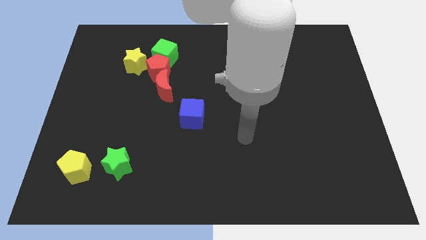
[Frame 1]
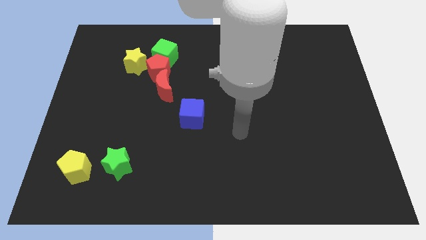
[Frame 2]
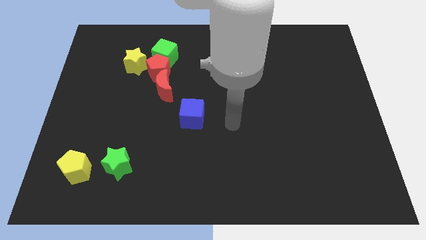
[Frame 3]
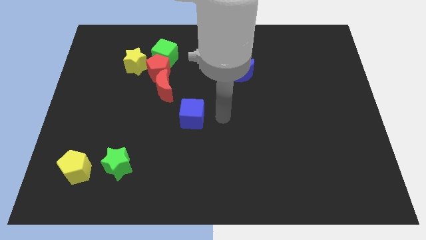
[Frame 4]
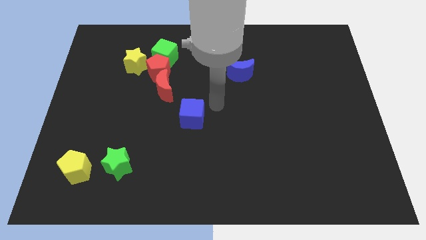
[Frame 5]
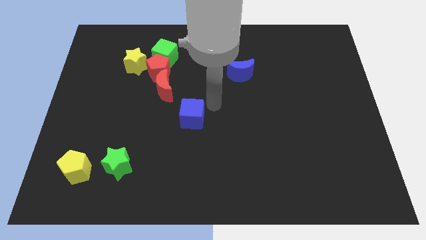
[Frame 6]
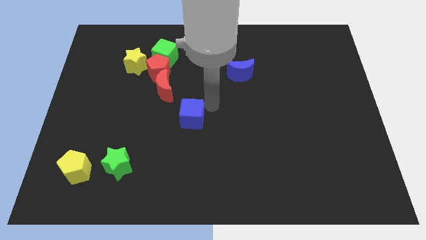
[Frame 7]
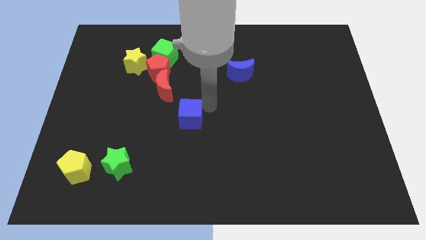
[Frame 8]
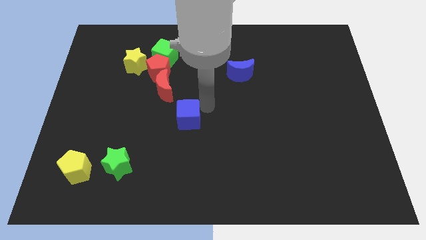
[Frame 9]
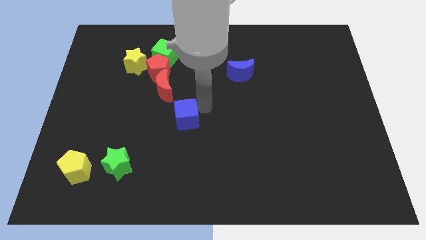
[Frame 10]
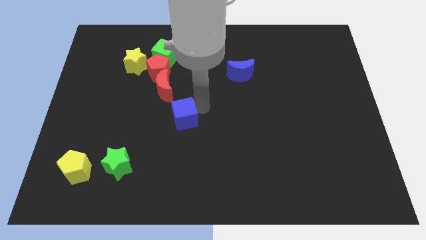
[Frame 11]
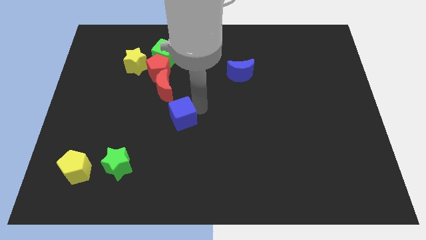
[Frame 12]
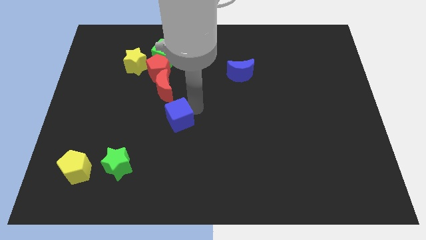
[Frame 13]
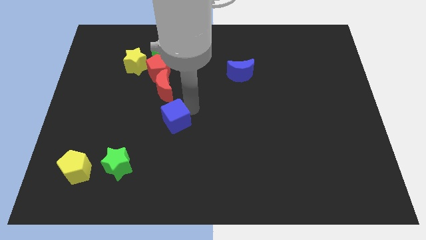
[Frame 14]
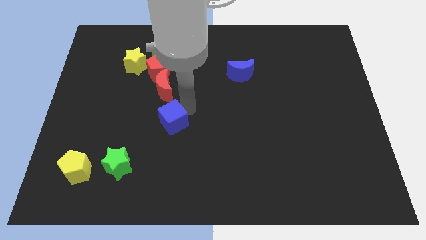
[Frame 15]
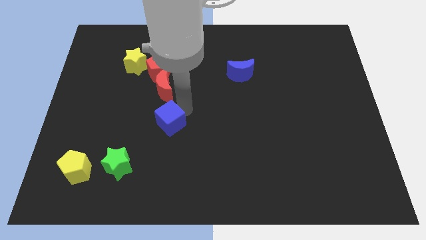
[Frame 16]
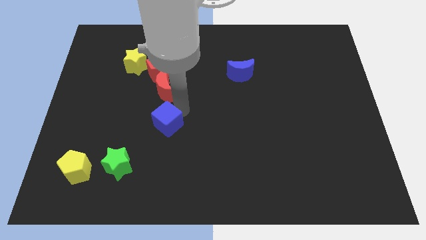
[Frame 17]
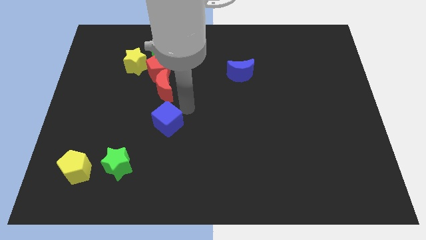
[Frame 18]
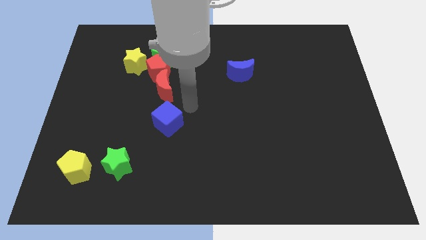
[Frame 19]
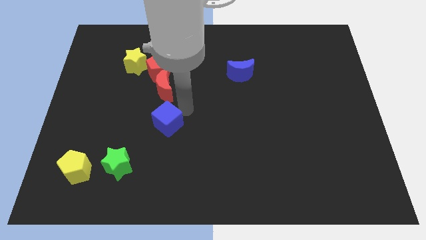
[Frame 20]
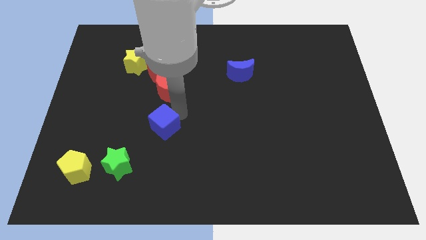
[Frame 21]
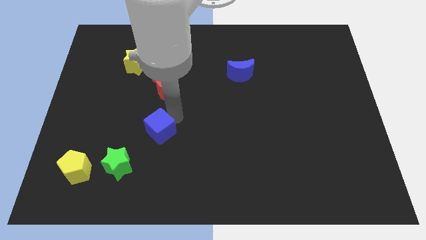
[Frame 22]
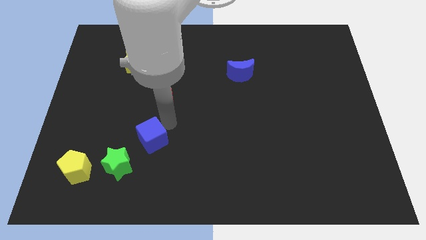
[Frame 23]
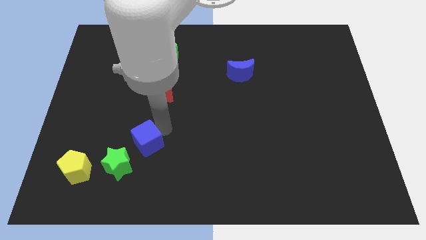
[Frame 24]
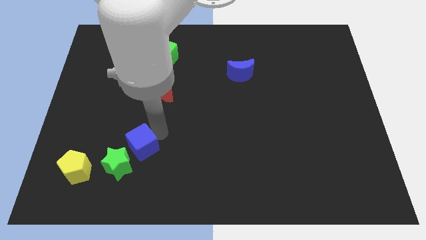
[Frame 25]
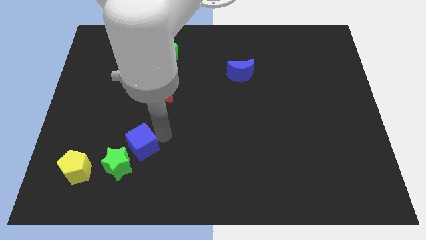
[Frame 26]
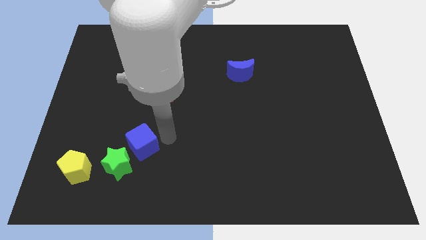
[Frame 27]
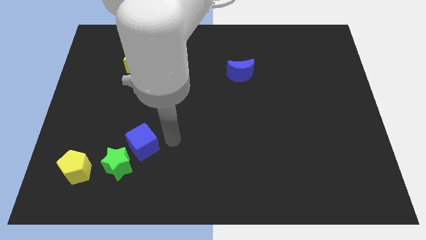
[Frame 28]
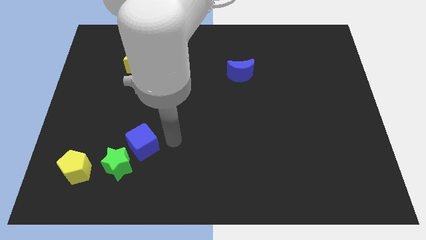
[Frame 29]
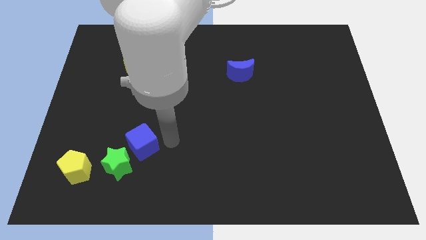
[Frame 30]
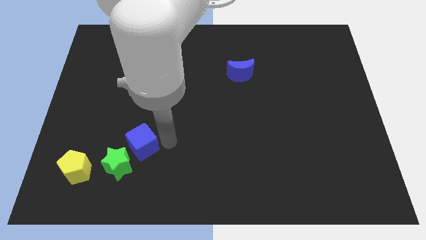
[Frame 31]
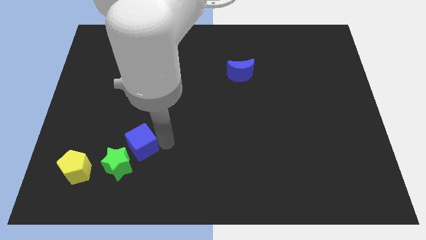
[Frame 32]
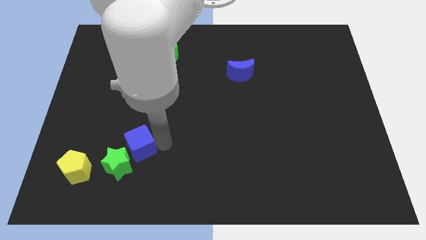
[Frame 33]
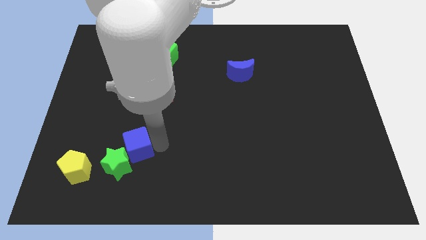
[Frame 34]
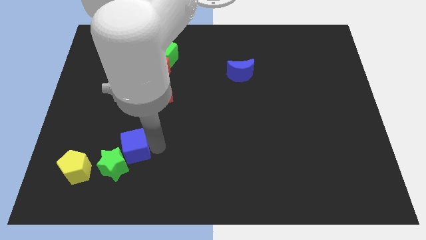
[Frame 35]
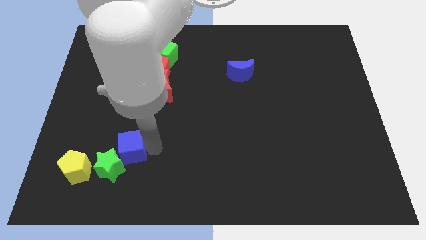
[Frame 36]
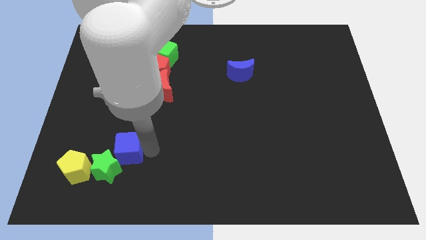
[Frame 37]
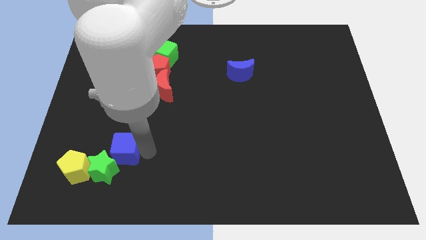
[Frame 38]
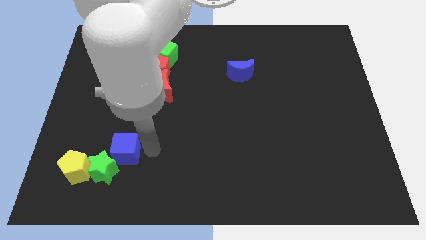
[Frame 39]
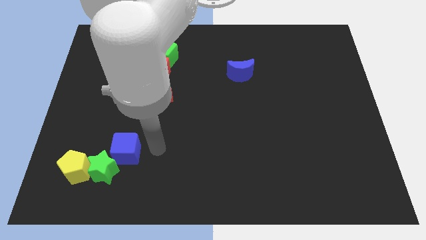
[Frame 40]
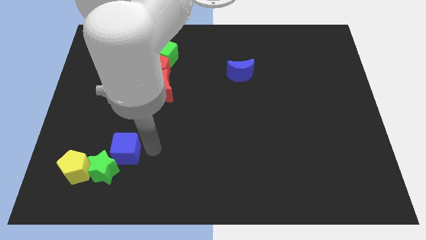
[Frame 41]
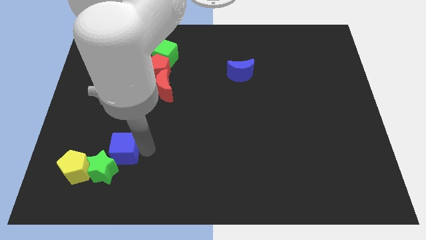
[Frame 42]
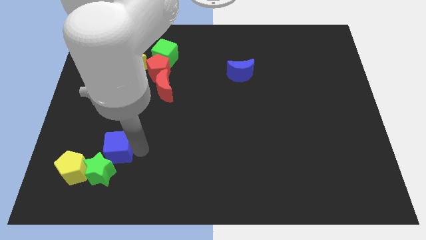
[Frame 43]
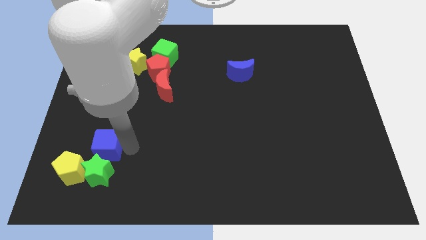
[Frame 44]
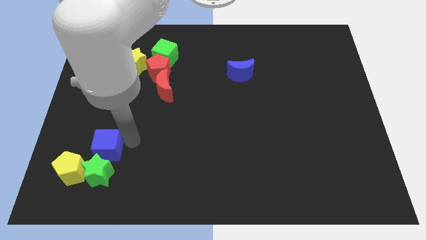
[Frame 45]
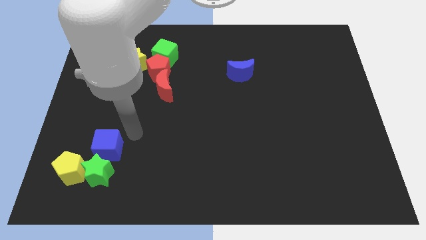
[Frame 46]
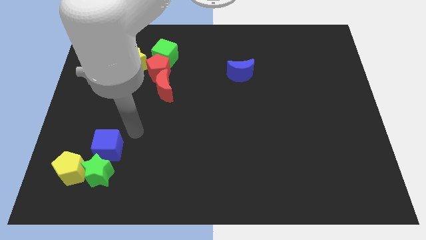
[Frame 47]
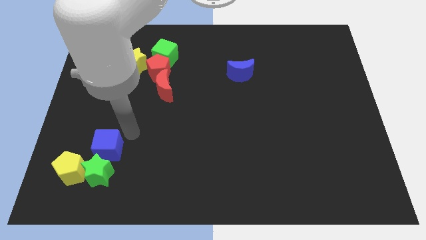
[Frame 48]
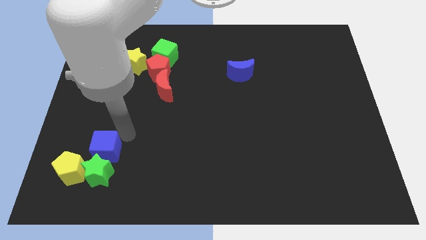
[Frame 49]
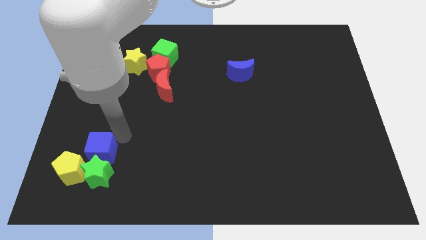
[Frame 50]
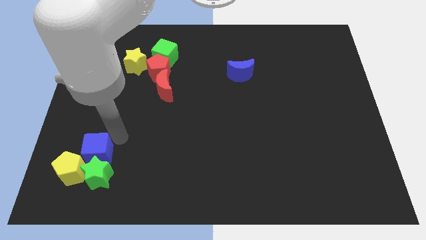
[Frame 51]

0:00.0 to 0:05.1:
move the blue cube towards the yellow pentagon

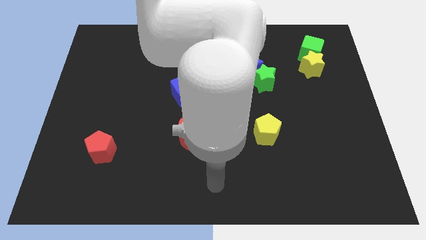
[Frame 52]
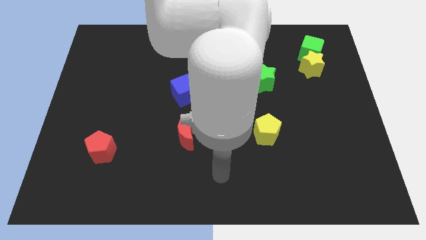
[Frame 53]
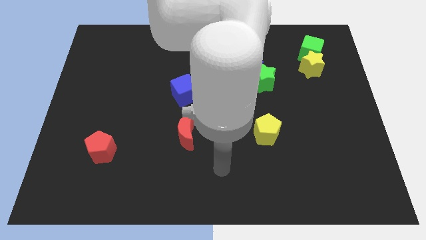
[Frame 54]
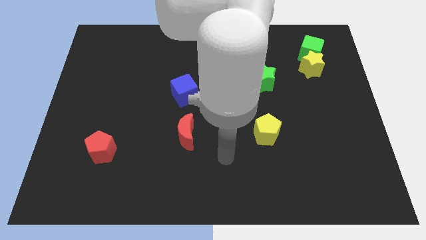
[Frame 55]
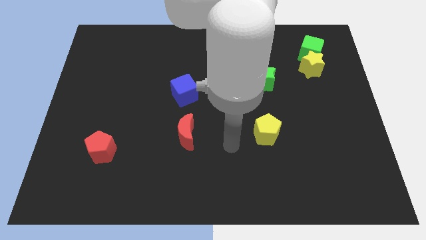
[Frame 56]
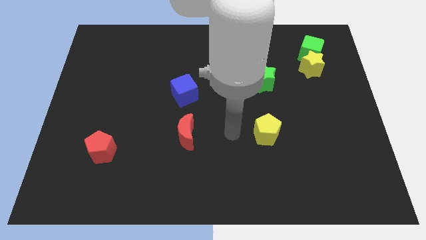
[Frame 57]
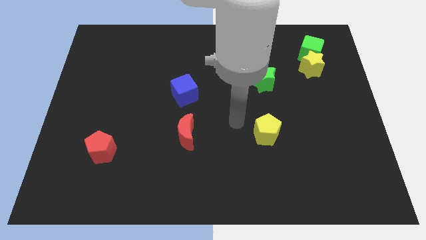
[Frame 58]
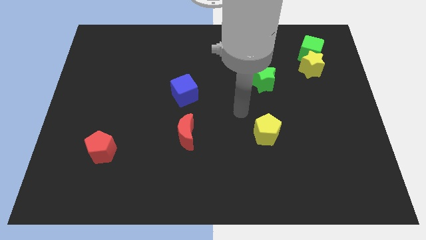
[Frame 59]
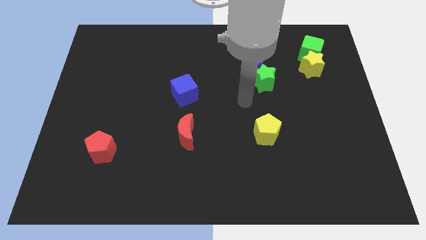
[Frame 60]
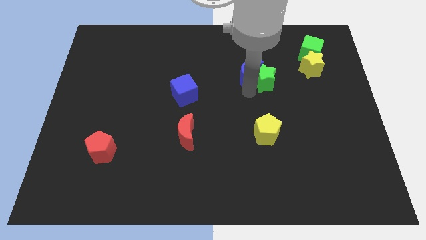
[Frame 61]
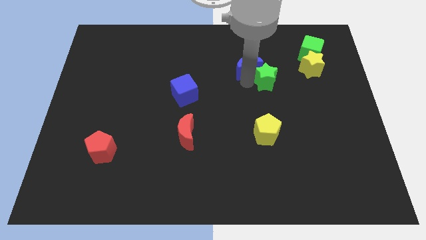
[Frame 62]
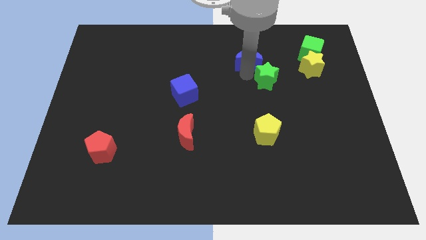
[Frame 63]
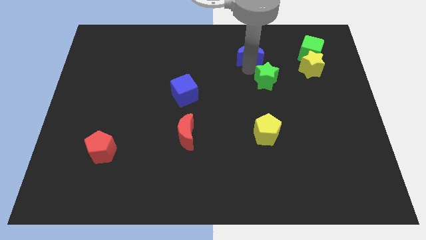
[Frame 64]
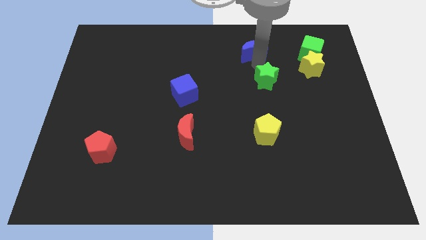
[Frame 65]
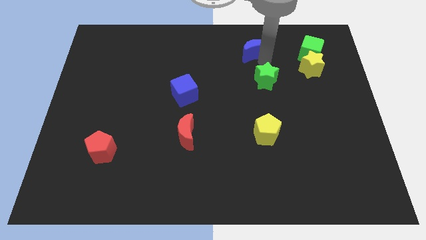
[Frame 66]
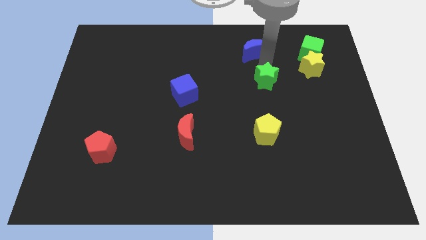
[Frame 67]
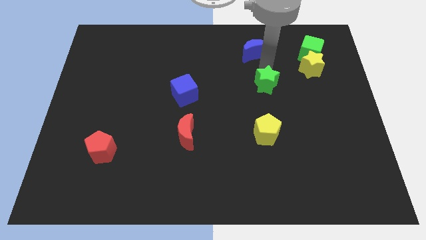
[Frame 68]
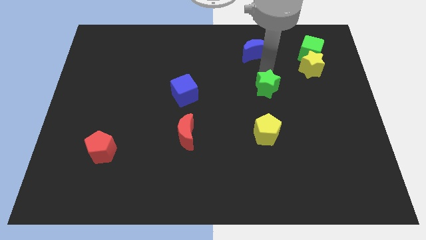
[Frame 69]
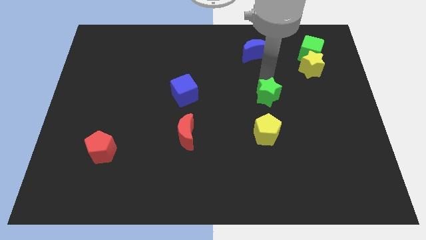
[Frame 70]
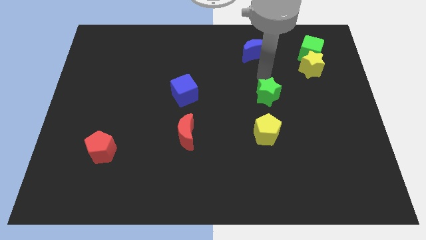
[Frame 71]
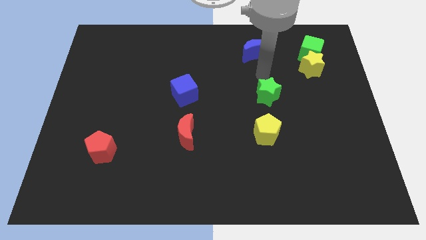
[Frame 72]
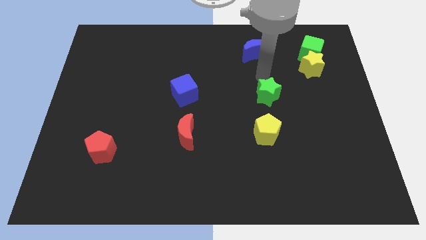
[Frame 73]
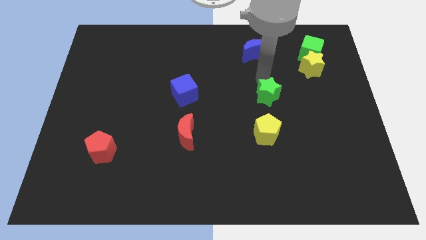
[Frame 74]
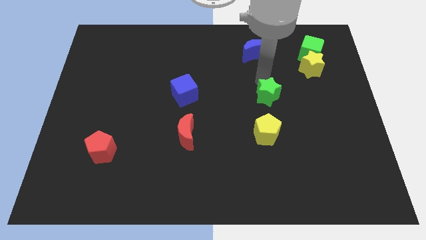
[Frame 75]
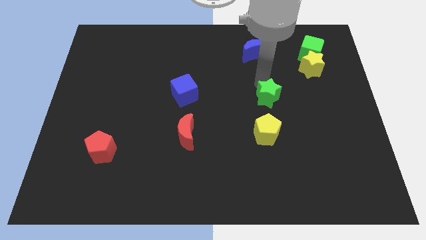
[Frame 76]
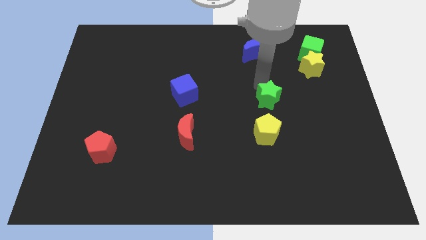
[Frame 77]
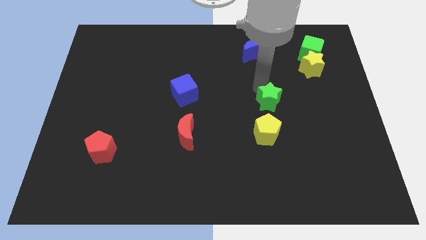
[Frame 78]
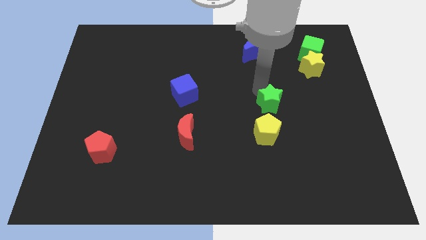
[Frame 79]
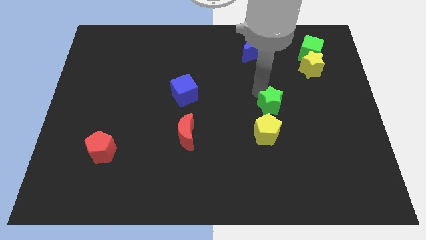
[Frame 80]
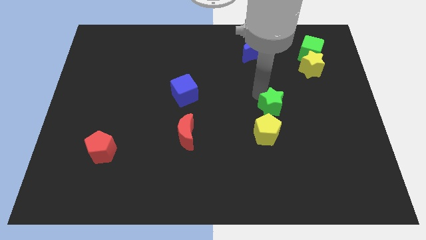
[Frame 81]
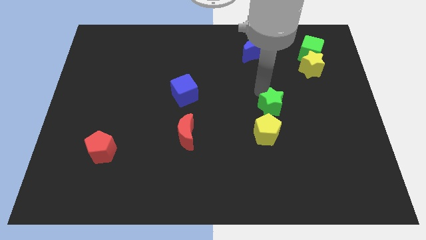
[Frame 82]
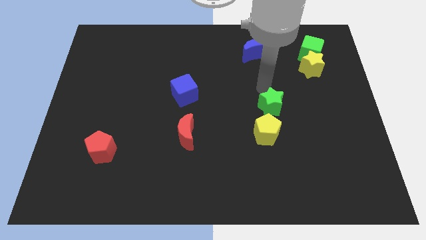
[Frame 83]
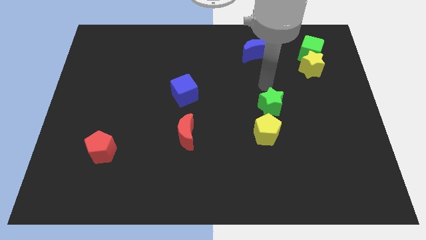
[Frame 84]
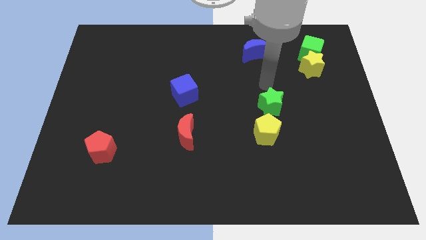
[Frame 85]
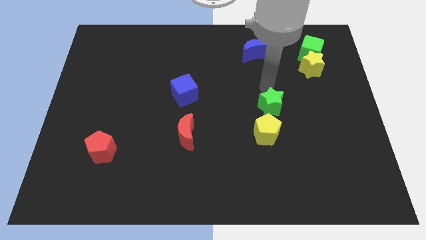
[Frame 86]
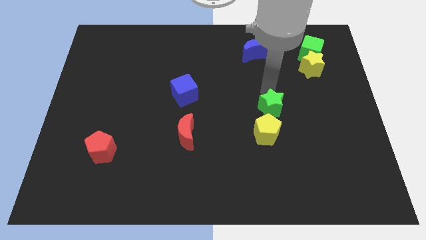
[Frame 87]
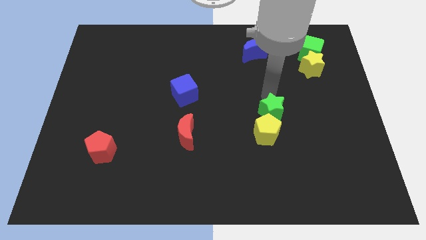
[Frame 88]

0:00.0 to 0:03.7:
slide the green star close to the yellow pentagon
